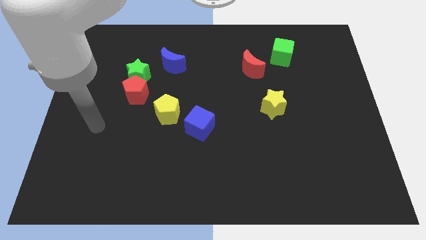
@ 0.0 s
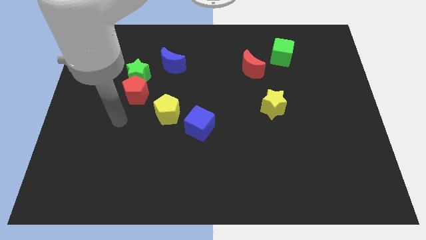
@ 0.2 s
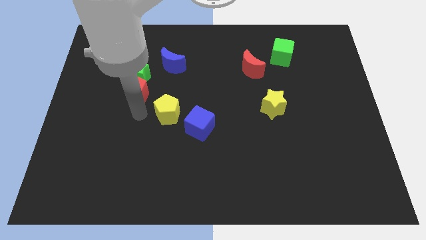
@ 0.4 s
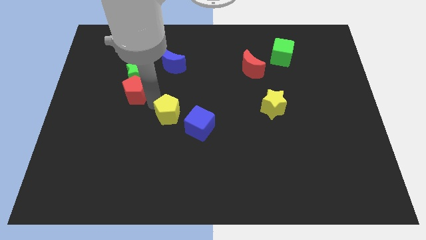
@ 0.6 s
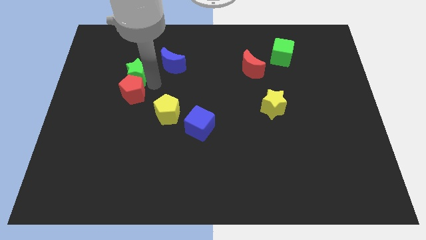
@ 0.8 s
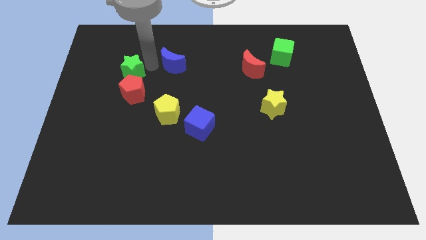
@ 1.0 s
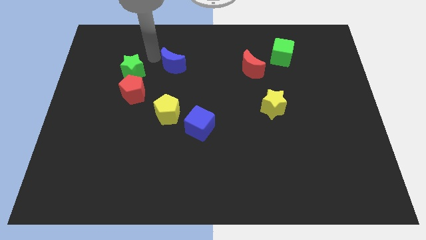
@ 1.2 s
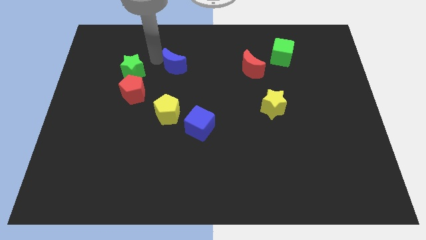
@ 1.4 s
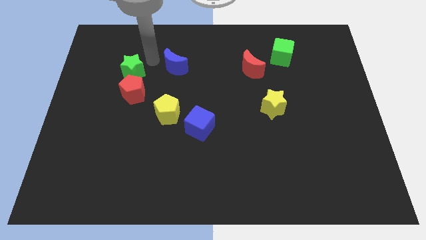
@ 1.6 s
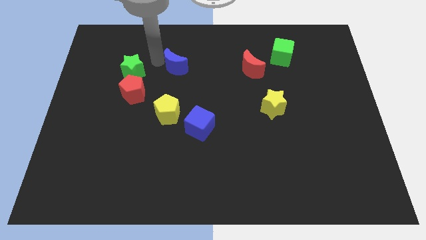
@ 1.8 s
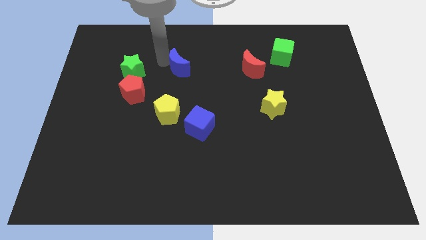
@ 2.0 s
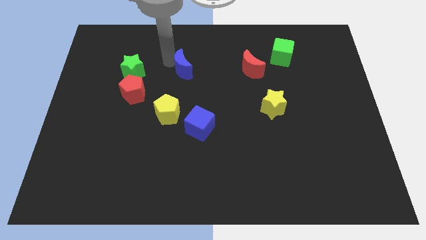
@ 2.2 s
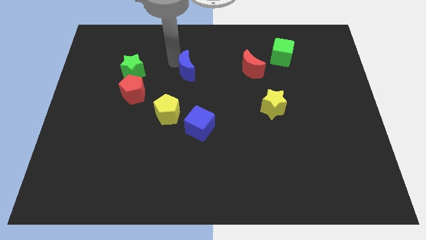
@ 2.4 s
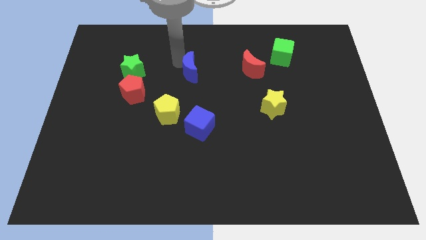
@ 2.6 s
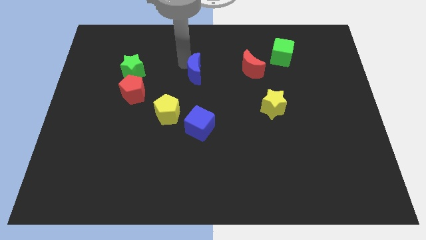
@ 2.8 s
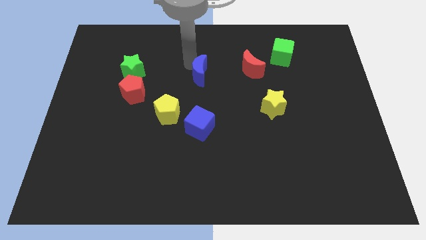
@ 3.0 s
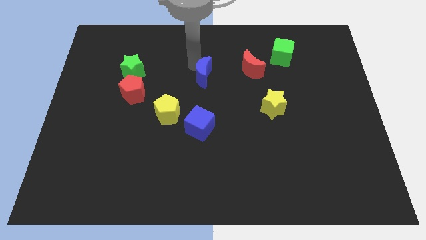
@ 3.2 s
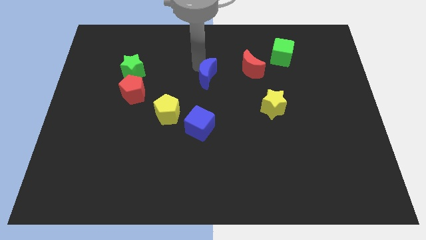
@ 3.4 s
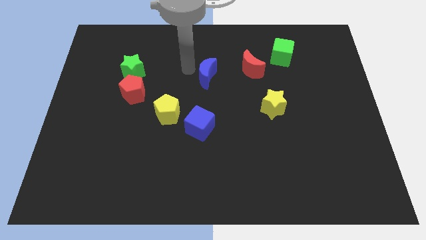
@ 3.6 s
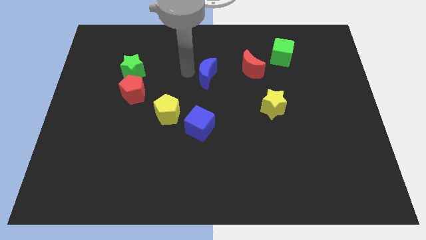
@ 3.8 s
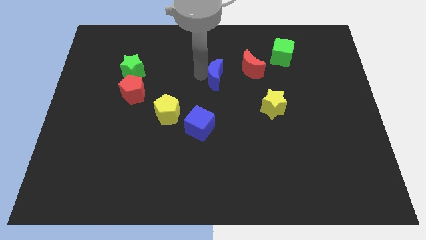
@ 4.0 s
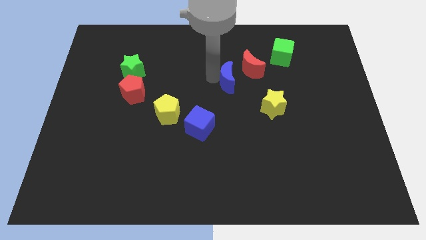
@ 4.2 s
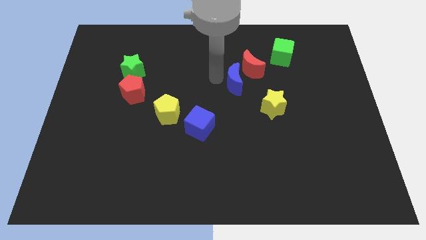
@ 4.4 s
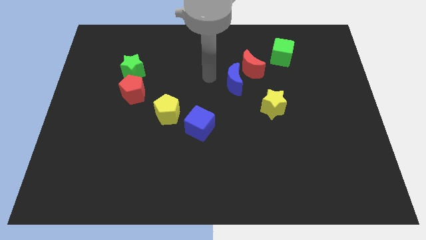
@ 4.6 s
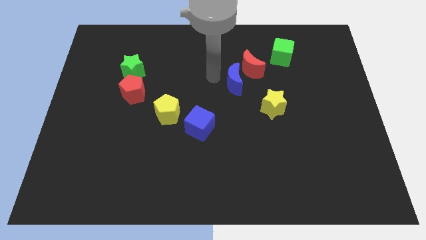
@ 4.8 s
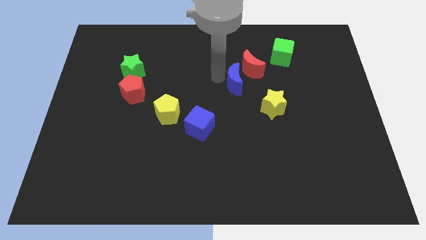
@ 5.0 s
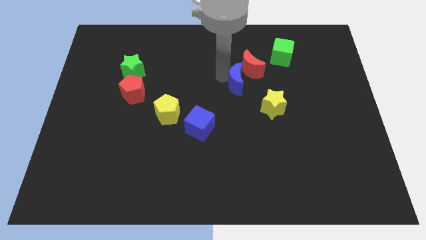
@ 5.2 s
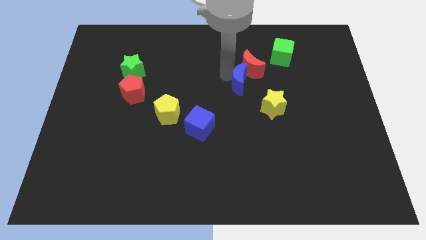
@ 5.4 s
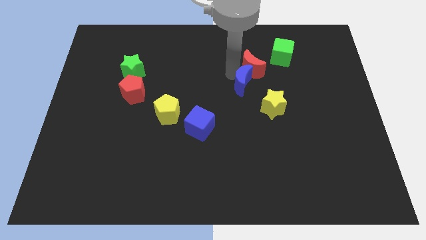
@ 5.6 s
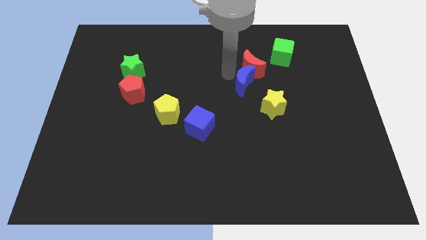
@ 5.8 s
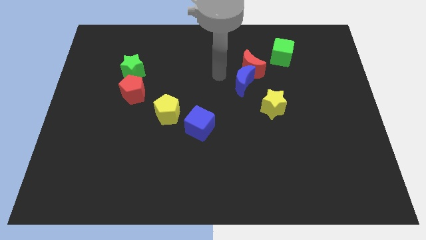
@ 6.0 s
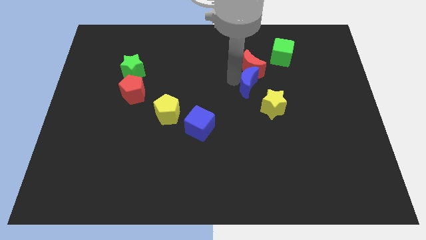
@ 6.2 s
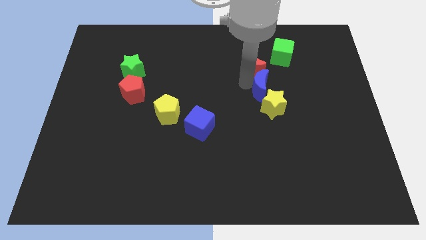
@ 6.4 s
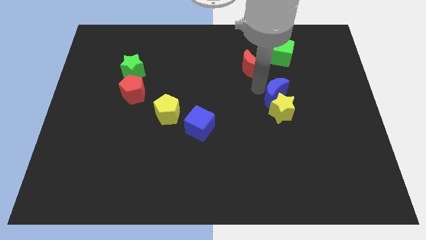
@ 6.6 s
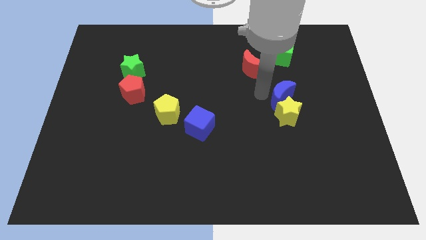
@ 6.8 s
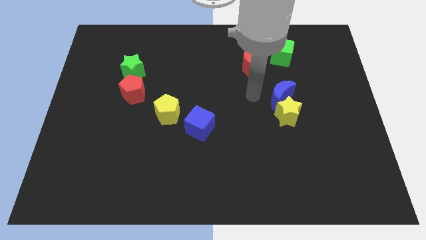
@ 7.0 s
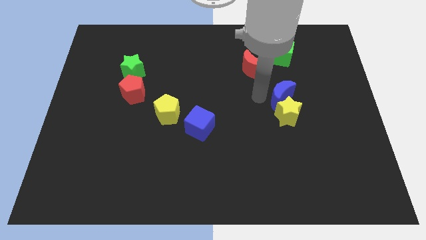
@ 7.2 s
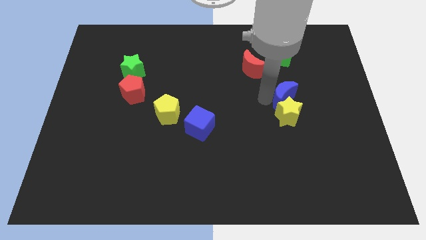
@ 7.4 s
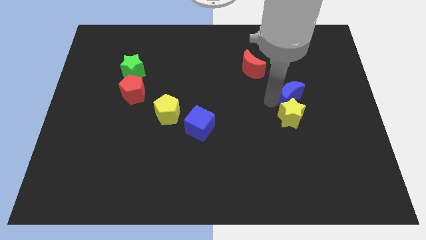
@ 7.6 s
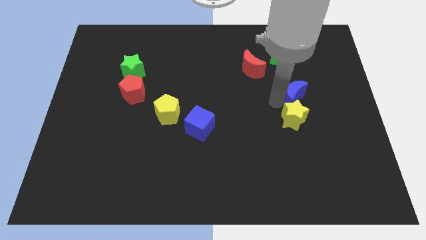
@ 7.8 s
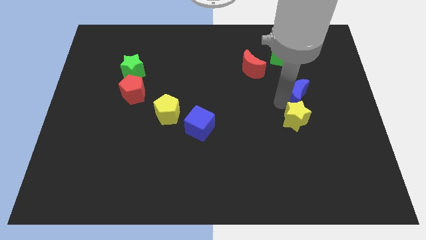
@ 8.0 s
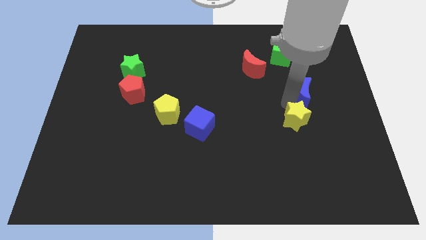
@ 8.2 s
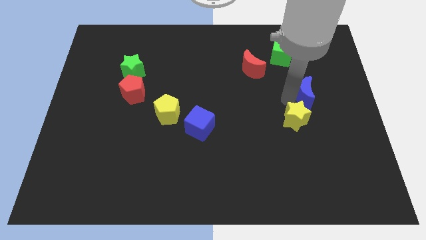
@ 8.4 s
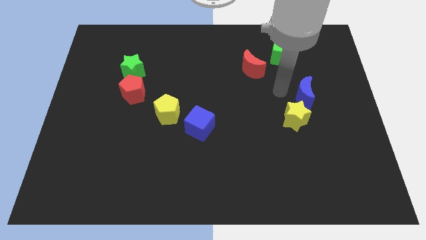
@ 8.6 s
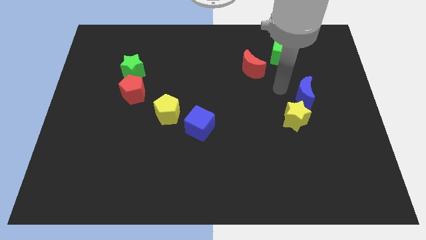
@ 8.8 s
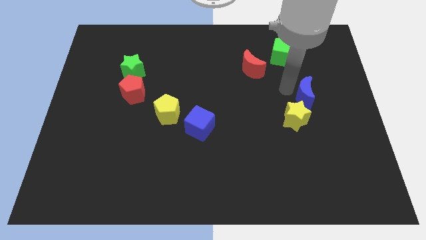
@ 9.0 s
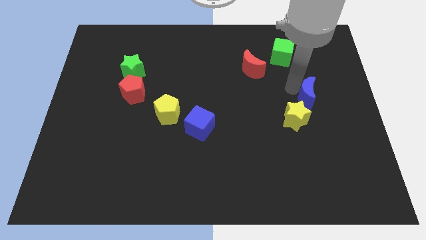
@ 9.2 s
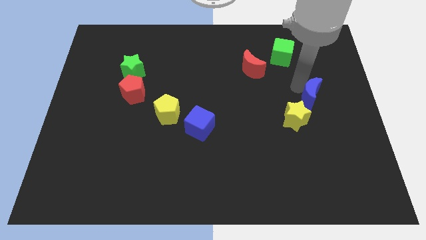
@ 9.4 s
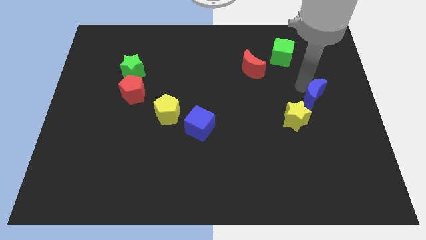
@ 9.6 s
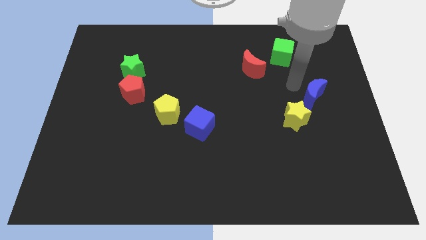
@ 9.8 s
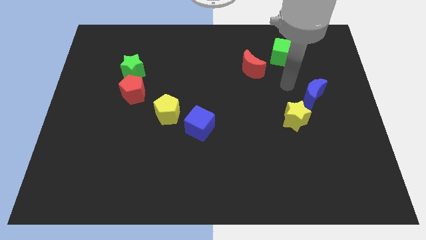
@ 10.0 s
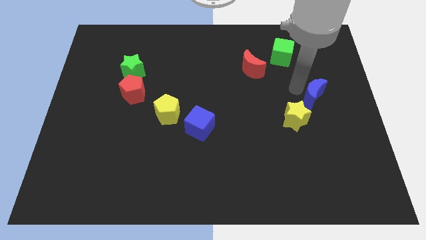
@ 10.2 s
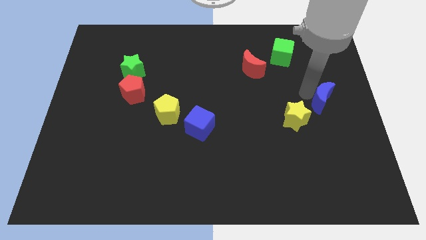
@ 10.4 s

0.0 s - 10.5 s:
slide the blue moon to the right side of the board
